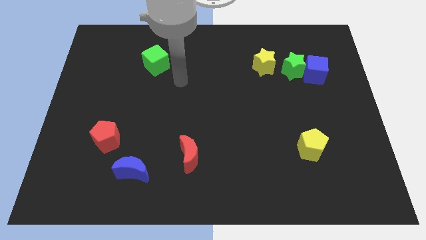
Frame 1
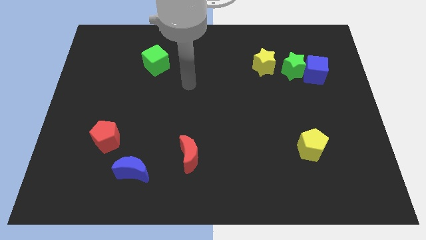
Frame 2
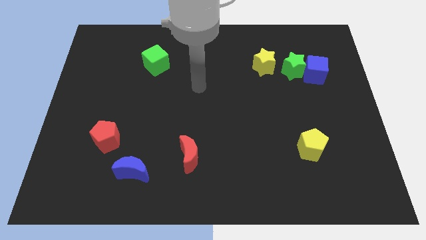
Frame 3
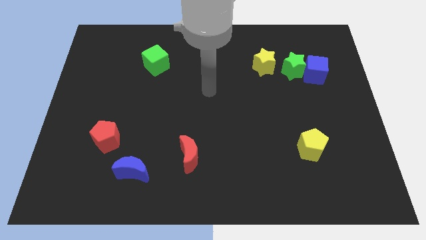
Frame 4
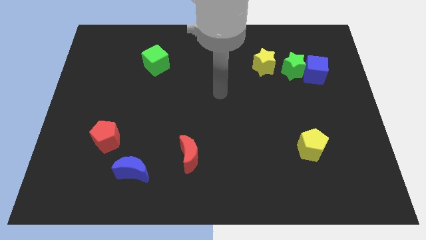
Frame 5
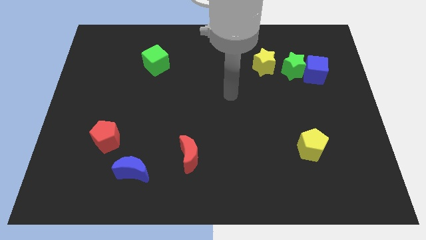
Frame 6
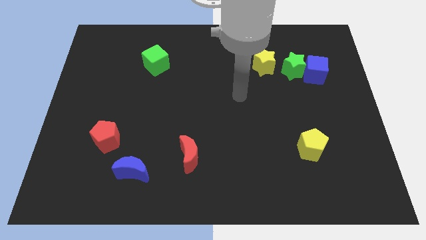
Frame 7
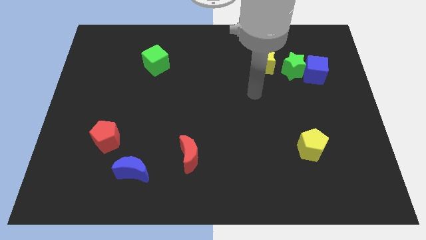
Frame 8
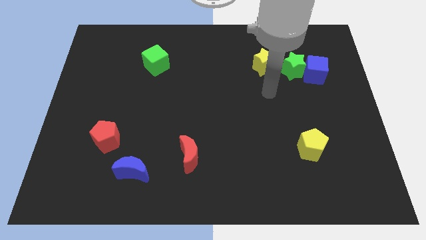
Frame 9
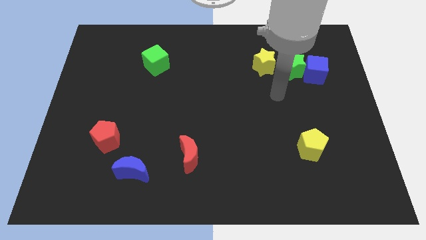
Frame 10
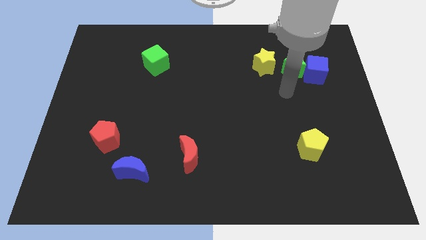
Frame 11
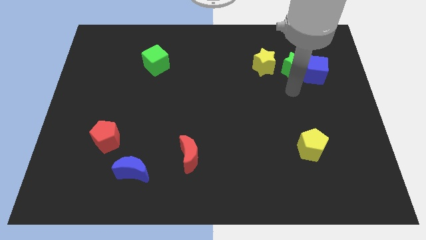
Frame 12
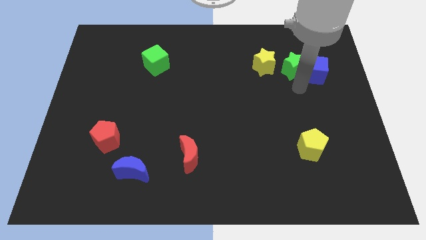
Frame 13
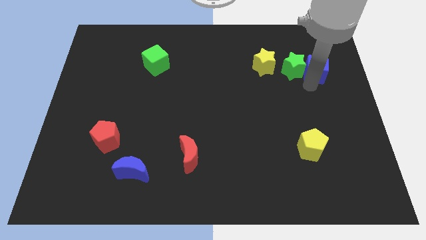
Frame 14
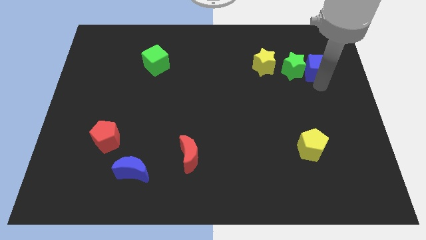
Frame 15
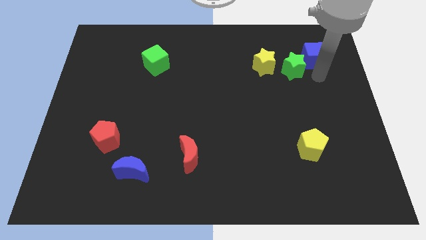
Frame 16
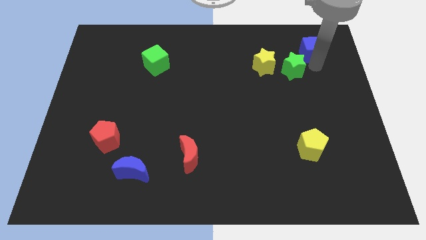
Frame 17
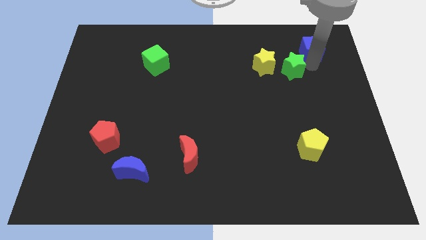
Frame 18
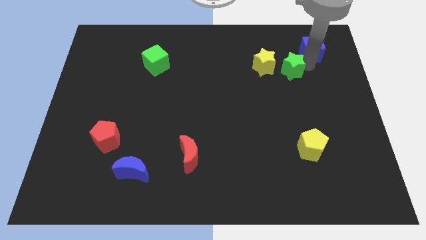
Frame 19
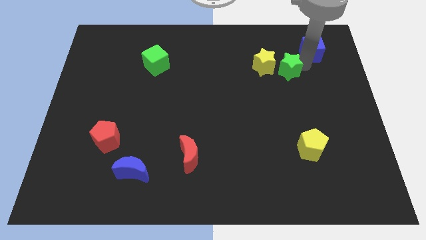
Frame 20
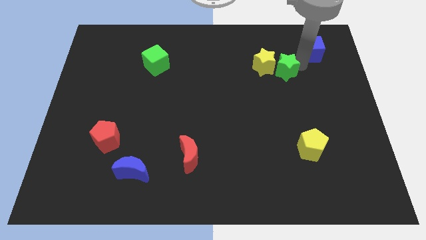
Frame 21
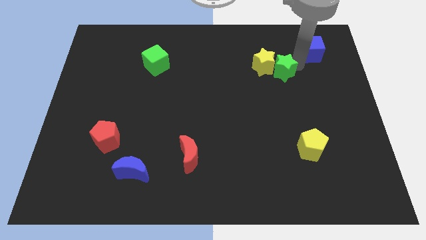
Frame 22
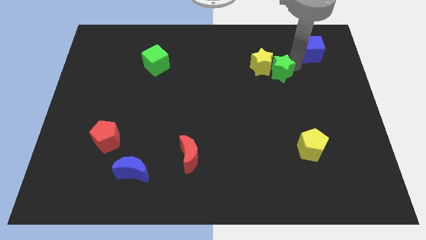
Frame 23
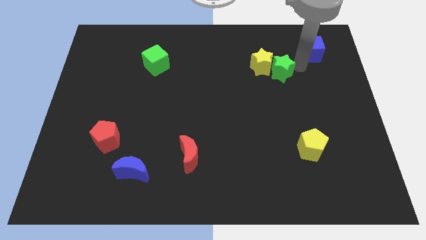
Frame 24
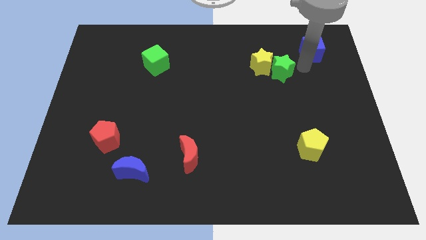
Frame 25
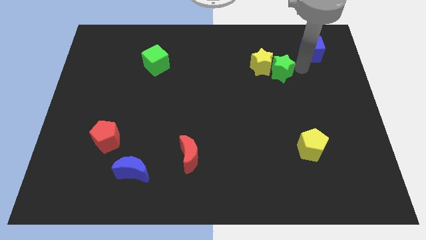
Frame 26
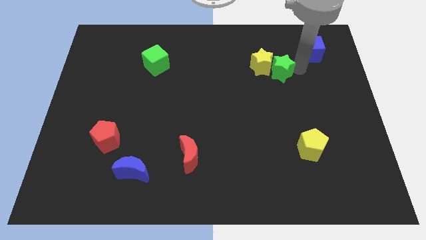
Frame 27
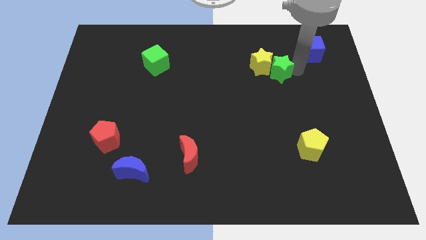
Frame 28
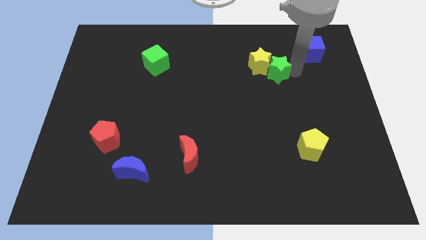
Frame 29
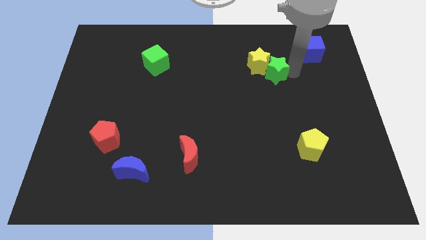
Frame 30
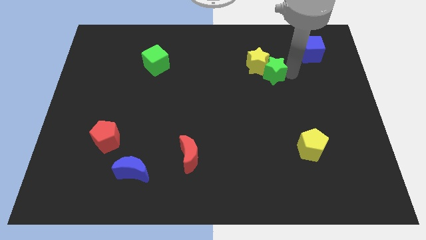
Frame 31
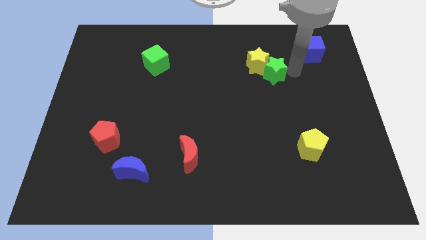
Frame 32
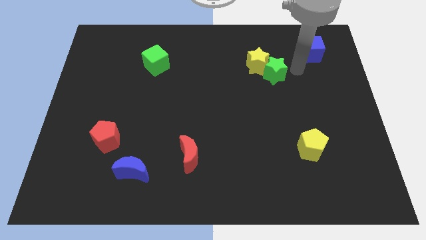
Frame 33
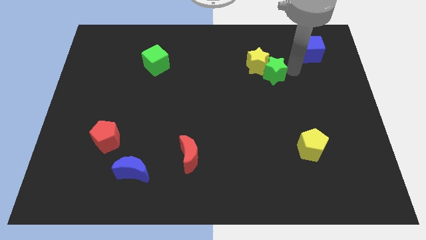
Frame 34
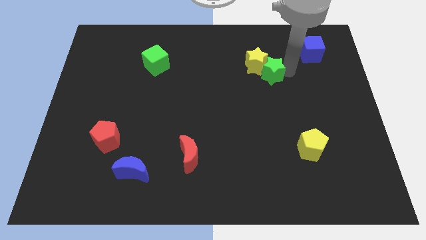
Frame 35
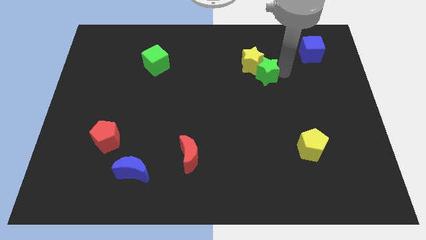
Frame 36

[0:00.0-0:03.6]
slightly slide the green star left

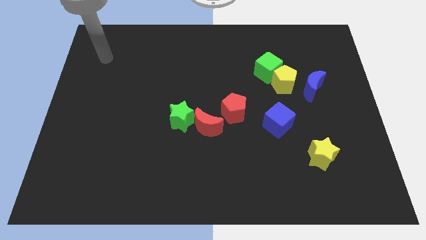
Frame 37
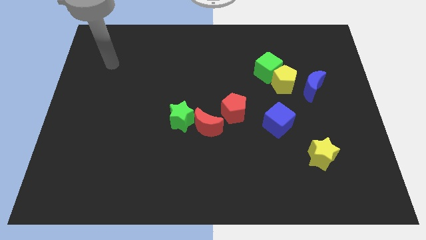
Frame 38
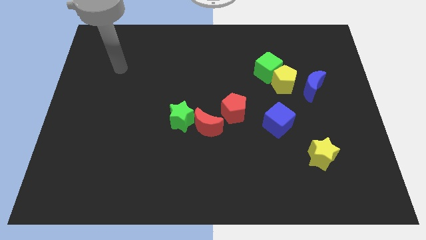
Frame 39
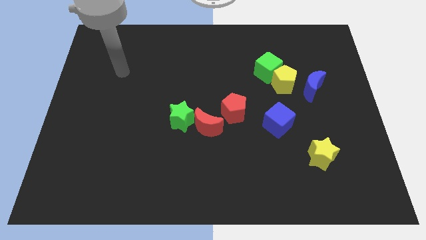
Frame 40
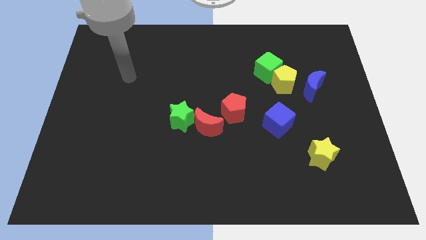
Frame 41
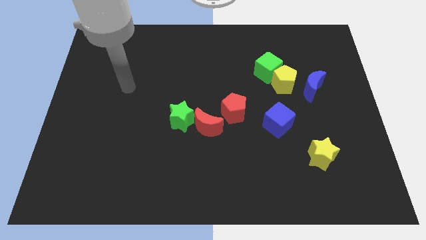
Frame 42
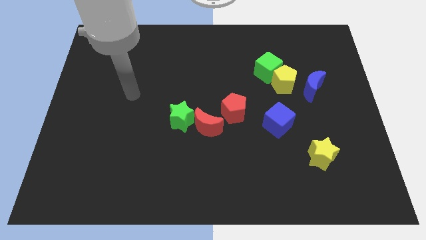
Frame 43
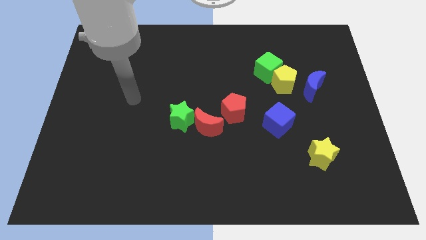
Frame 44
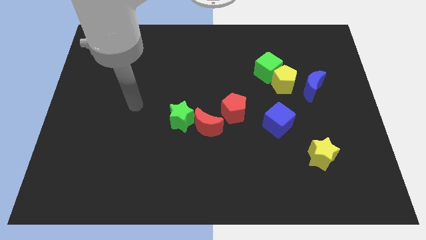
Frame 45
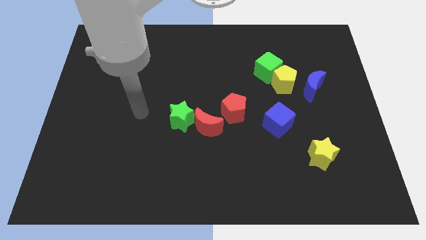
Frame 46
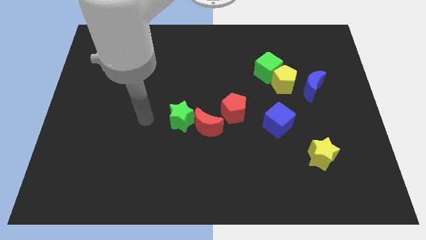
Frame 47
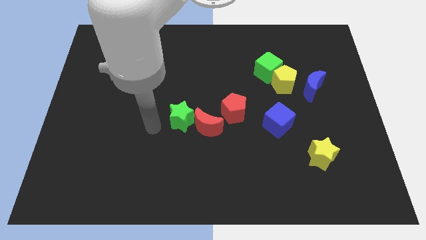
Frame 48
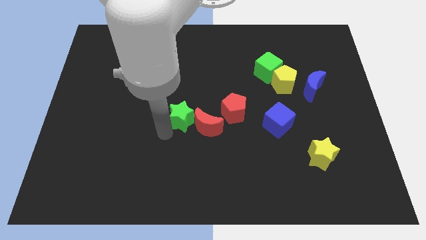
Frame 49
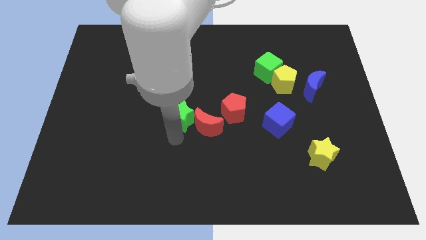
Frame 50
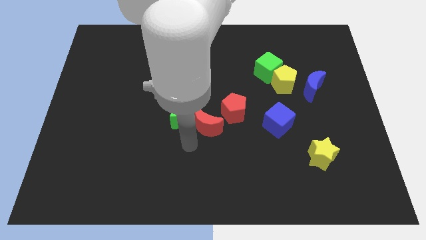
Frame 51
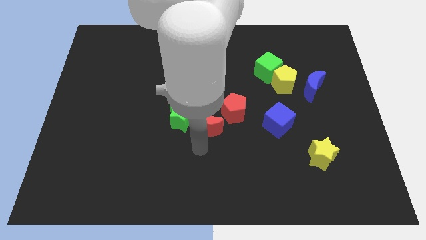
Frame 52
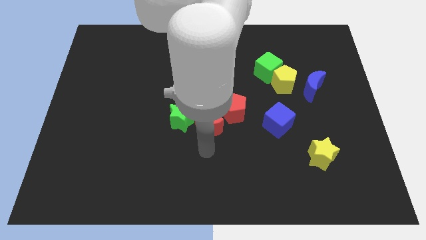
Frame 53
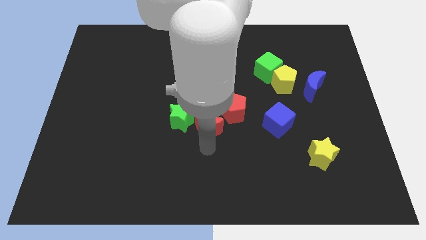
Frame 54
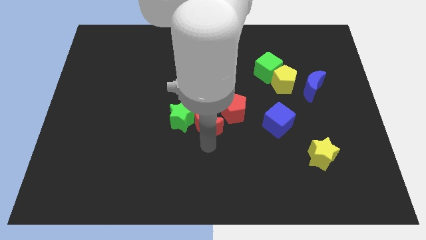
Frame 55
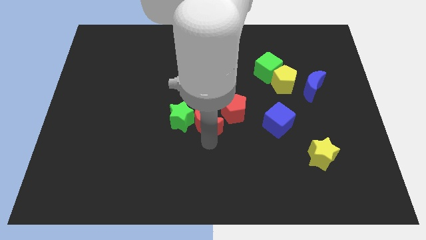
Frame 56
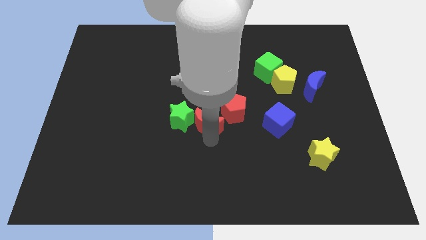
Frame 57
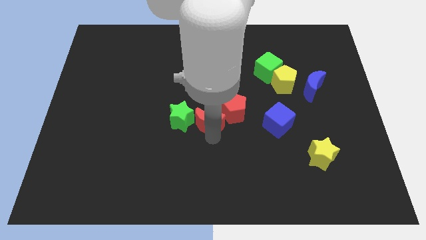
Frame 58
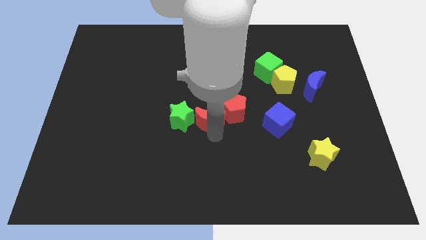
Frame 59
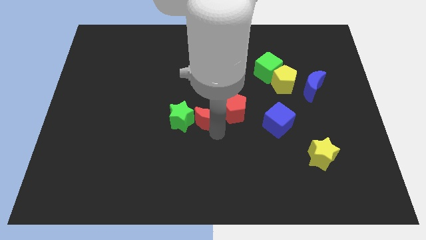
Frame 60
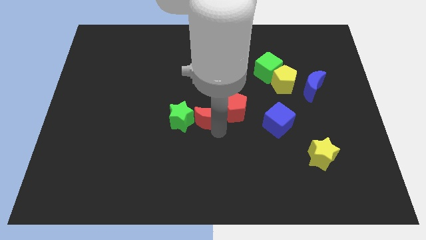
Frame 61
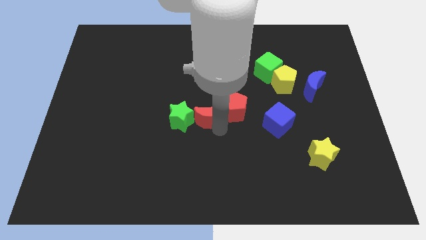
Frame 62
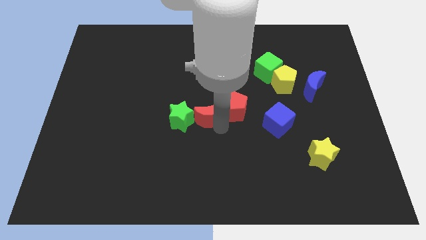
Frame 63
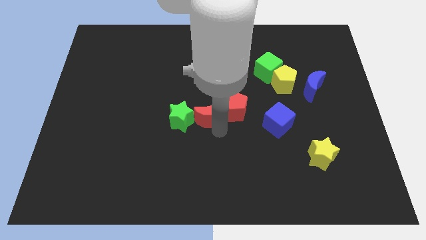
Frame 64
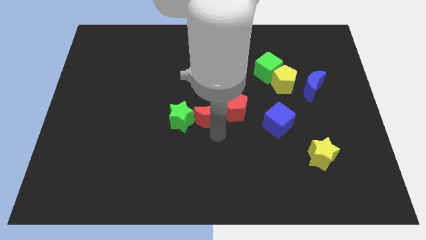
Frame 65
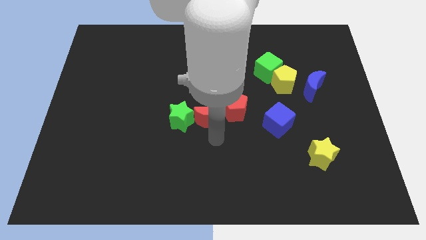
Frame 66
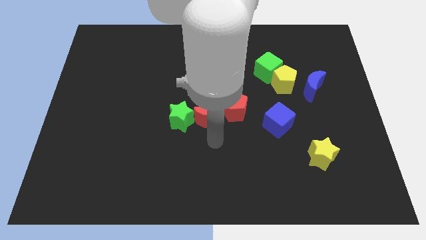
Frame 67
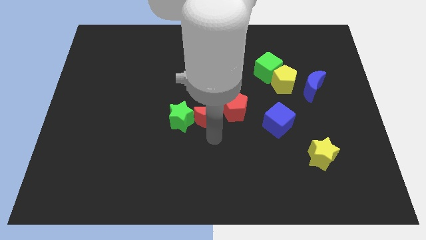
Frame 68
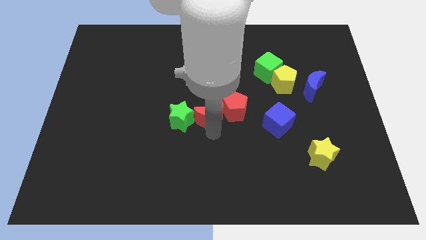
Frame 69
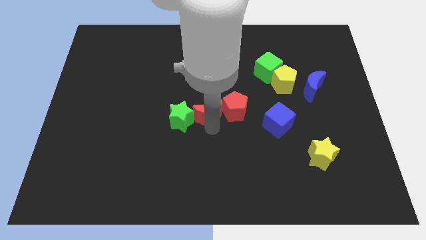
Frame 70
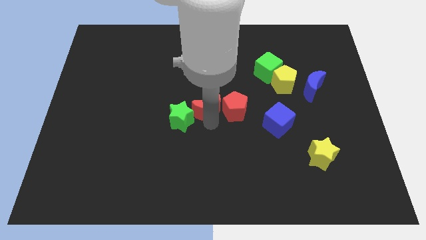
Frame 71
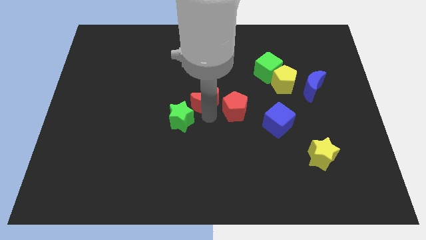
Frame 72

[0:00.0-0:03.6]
slide the red moon upwards slightly

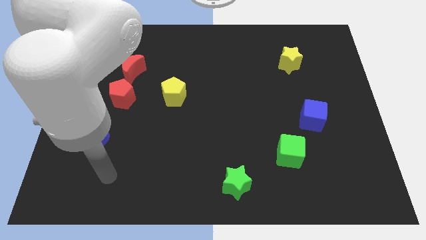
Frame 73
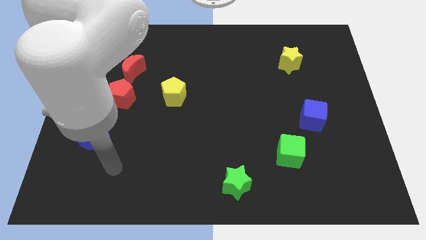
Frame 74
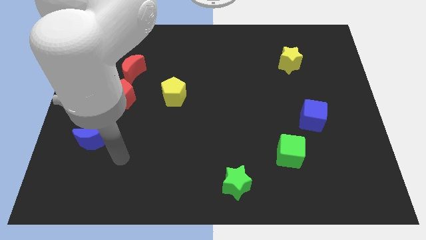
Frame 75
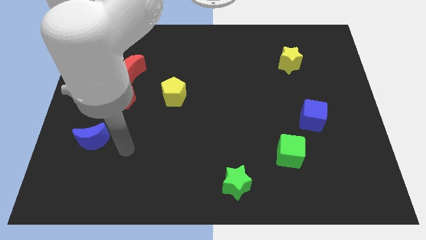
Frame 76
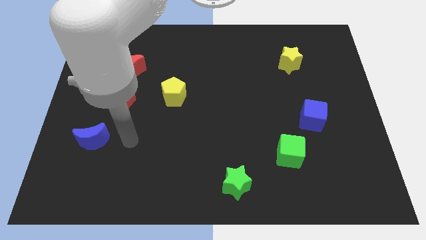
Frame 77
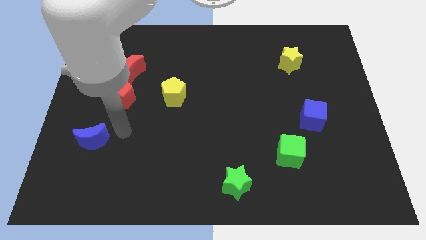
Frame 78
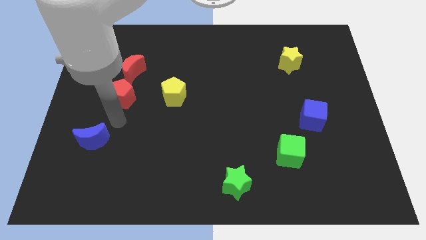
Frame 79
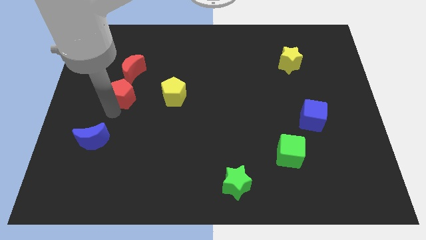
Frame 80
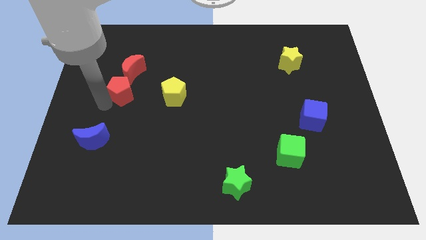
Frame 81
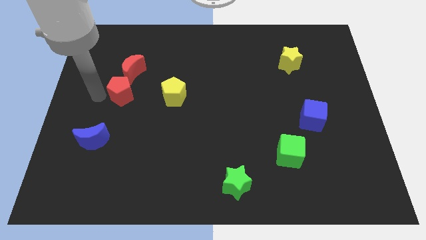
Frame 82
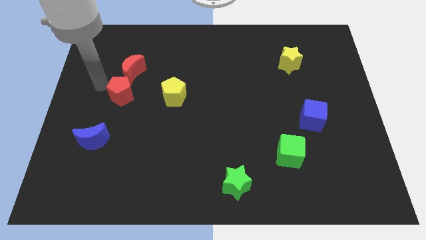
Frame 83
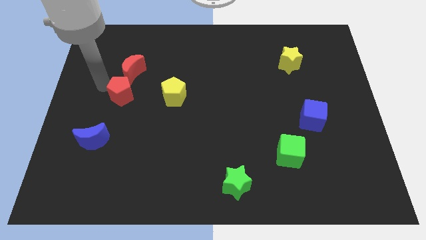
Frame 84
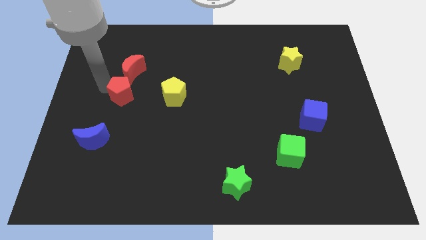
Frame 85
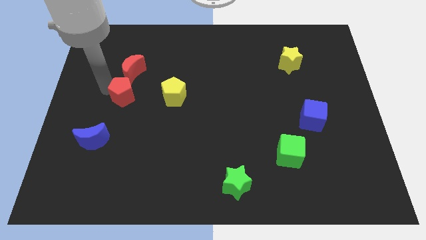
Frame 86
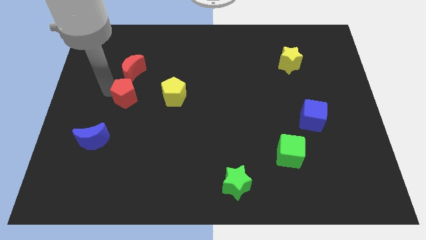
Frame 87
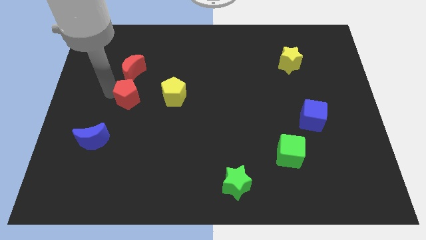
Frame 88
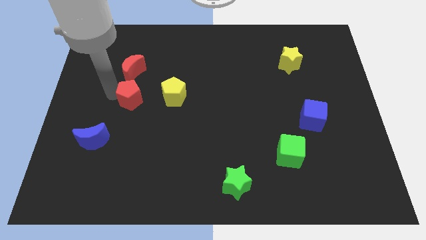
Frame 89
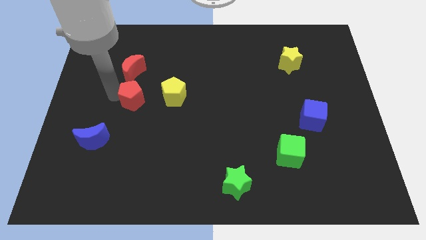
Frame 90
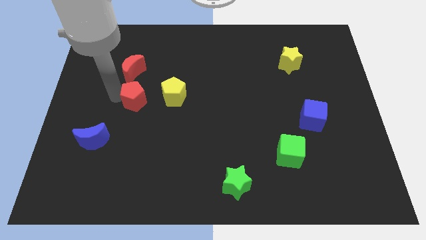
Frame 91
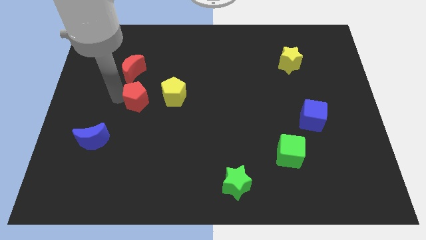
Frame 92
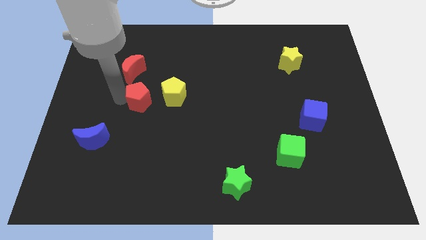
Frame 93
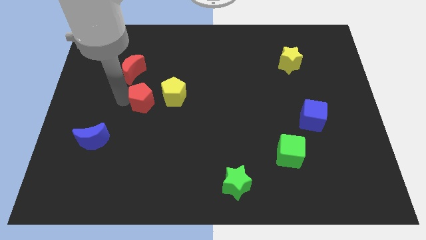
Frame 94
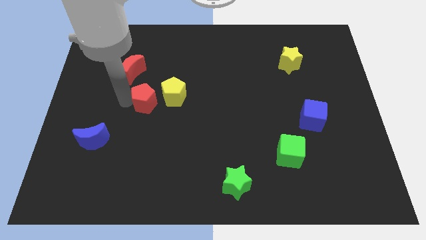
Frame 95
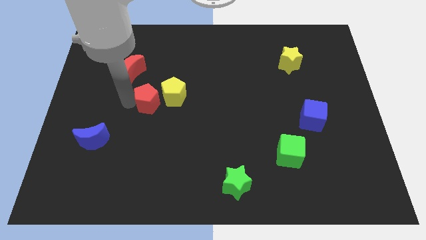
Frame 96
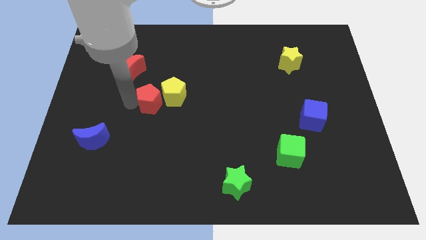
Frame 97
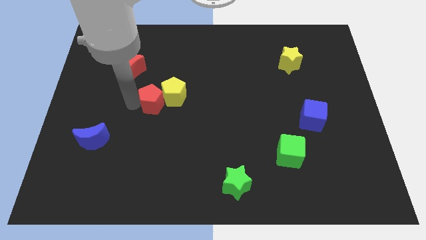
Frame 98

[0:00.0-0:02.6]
move the red pentagon right slightly
